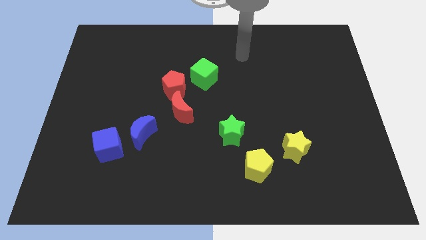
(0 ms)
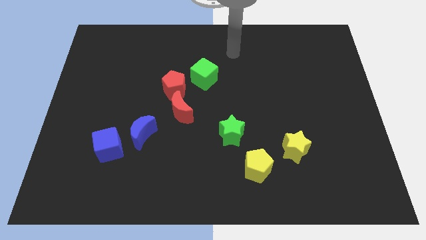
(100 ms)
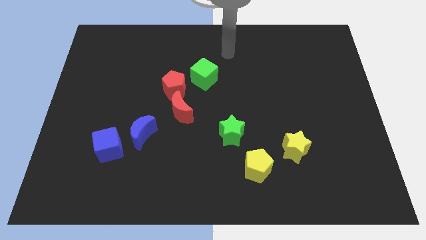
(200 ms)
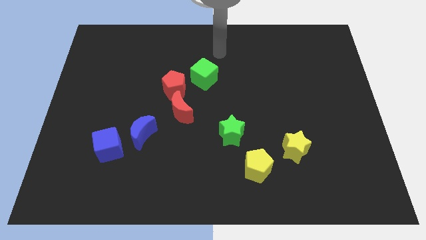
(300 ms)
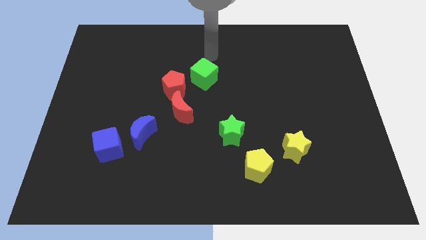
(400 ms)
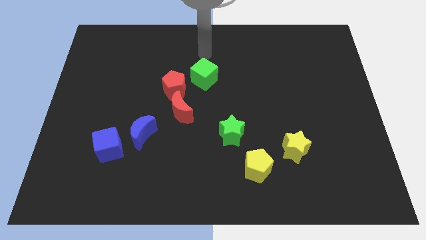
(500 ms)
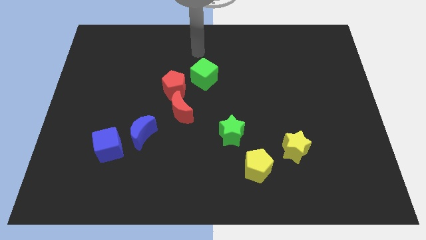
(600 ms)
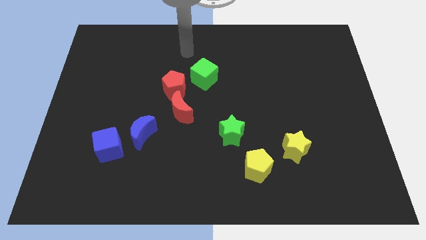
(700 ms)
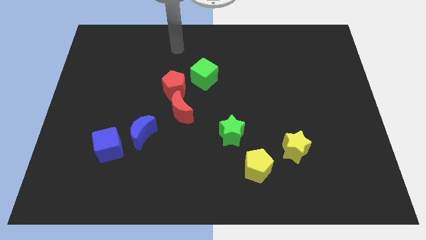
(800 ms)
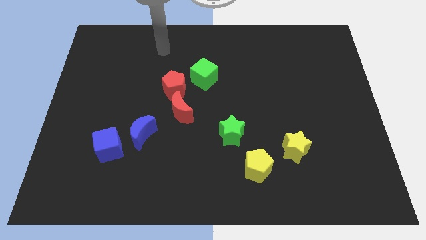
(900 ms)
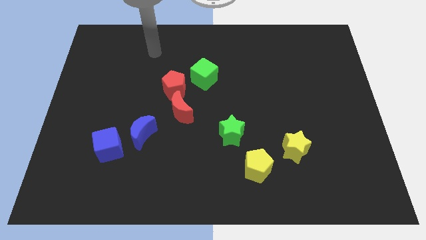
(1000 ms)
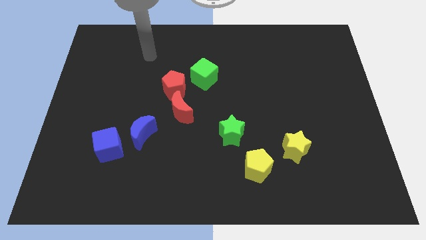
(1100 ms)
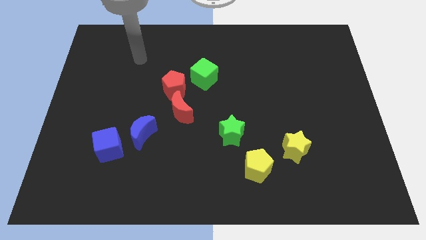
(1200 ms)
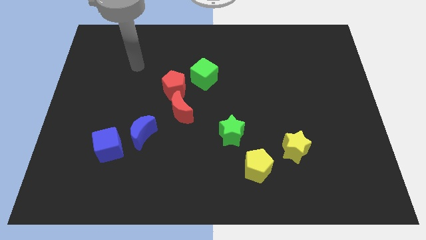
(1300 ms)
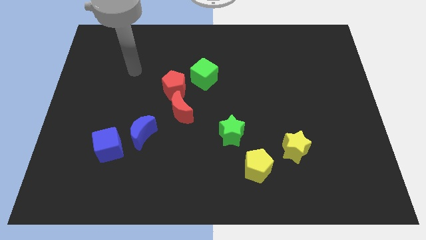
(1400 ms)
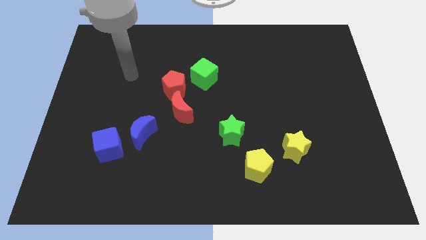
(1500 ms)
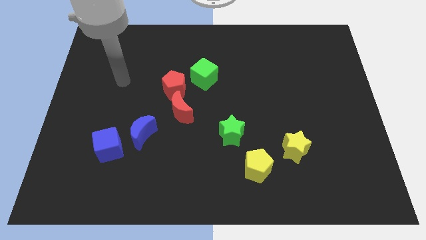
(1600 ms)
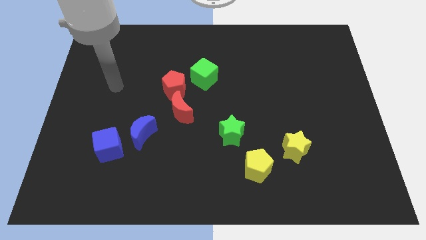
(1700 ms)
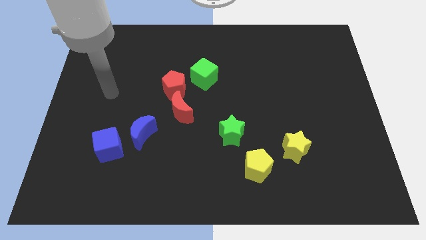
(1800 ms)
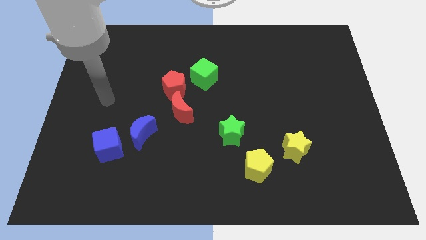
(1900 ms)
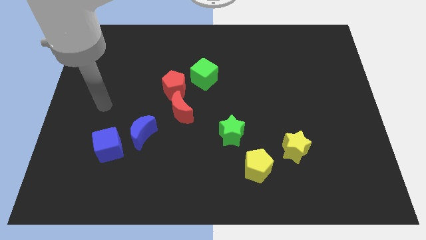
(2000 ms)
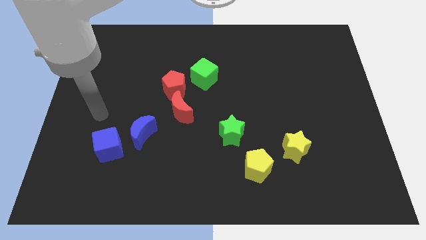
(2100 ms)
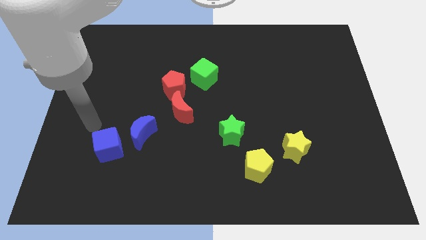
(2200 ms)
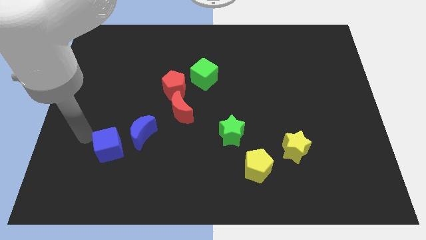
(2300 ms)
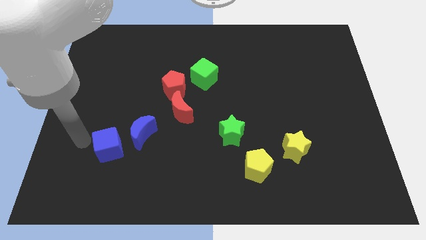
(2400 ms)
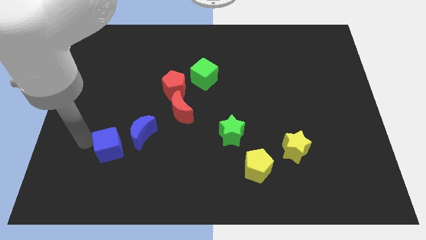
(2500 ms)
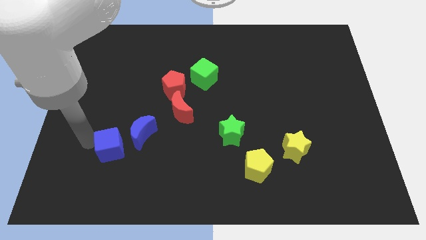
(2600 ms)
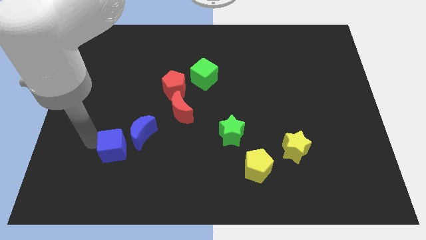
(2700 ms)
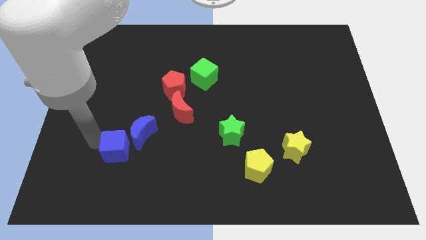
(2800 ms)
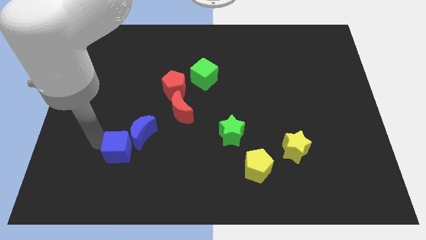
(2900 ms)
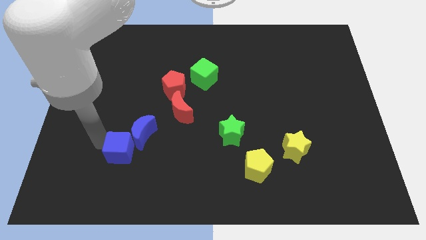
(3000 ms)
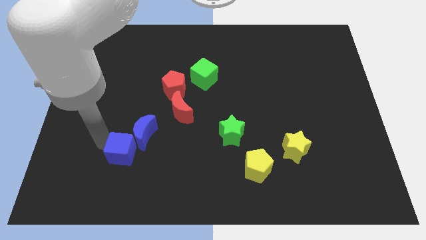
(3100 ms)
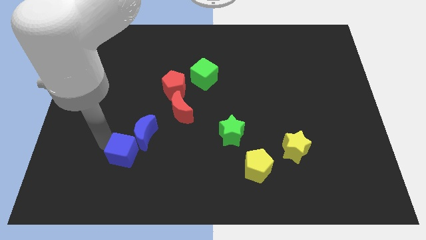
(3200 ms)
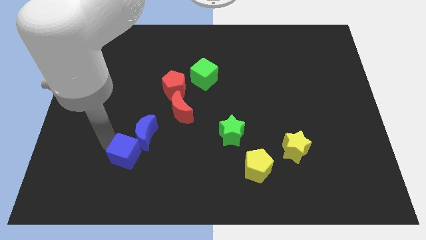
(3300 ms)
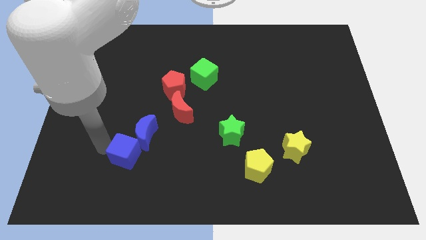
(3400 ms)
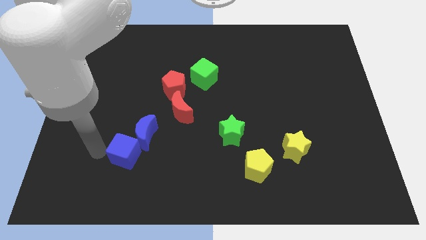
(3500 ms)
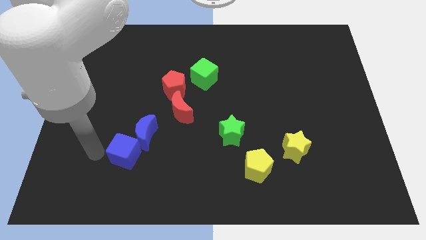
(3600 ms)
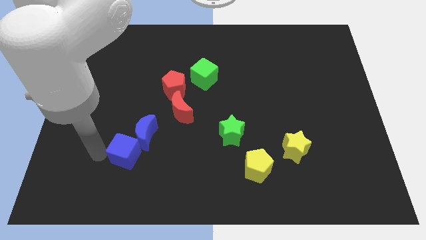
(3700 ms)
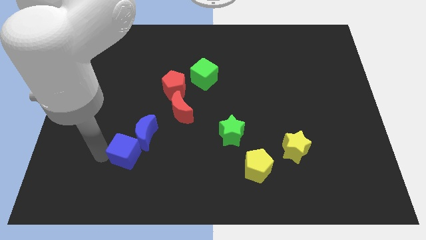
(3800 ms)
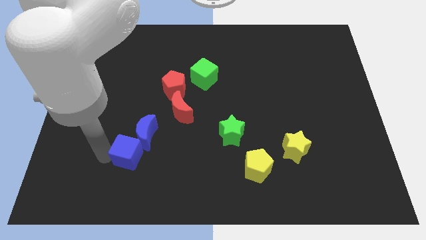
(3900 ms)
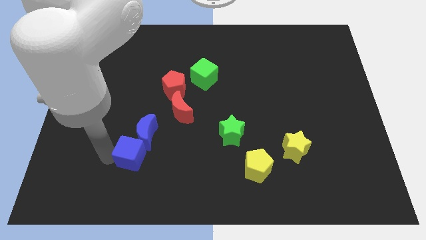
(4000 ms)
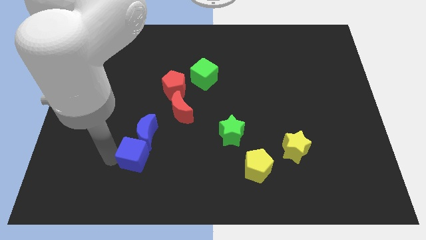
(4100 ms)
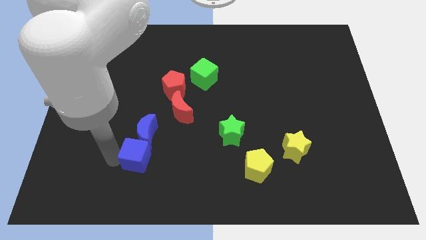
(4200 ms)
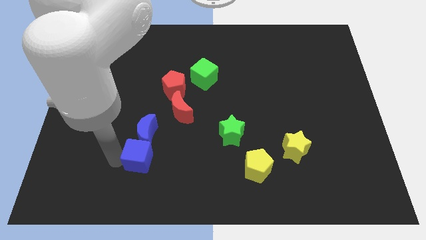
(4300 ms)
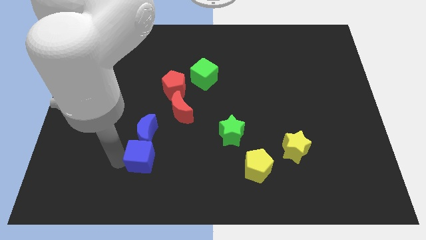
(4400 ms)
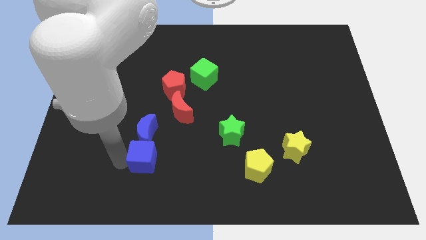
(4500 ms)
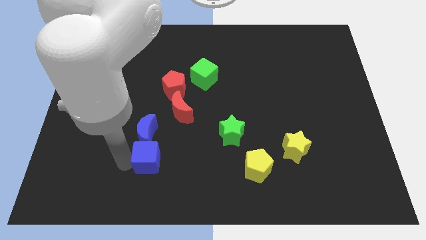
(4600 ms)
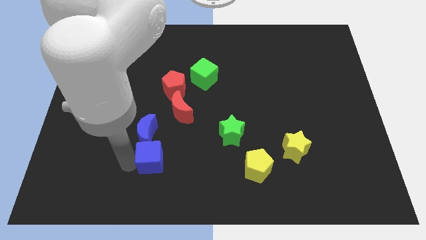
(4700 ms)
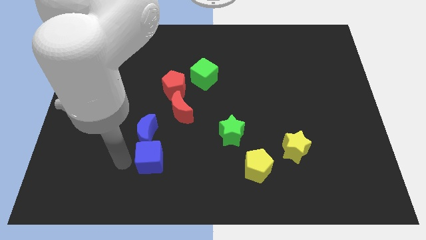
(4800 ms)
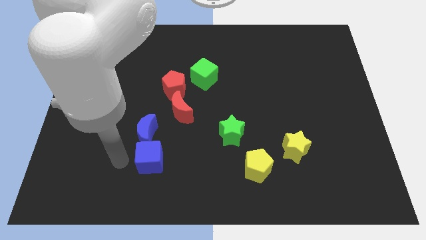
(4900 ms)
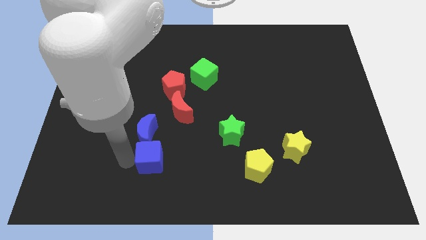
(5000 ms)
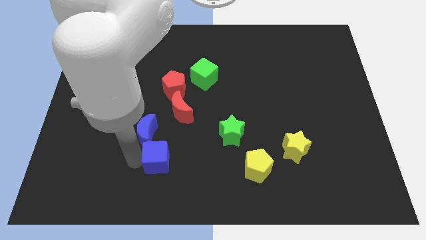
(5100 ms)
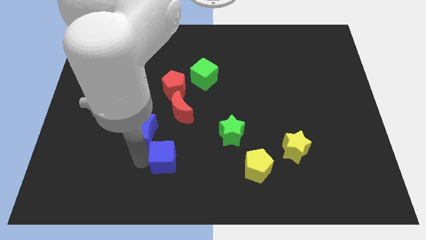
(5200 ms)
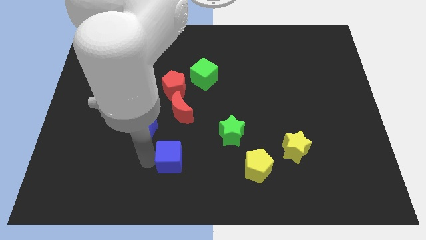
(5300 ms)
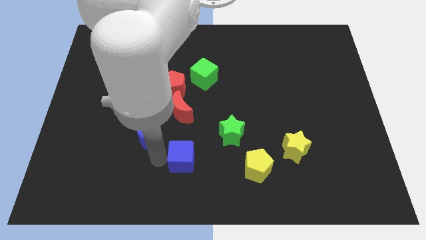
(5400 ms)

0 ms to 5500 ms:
put the blue cube left of the yellow pentagon

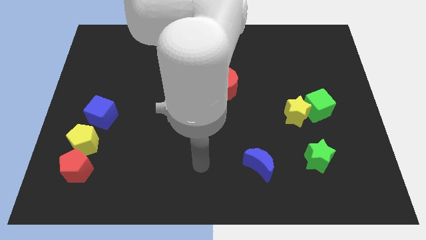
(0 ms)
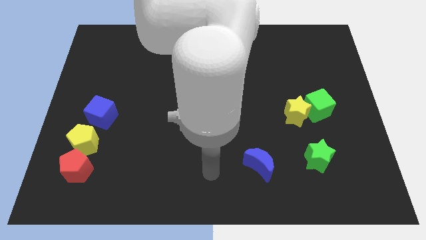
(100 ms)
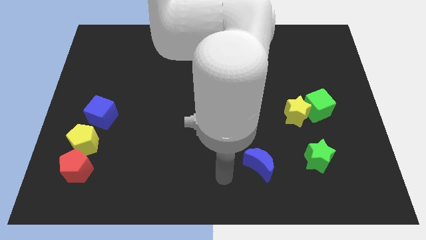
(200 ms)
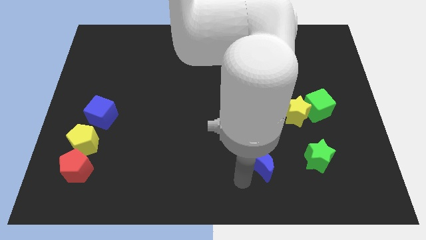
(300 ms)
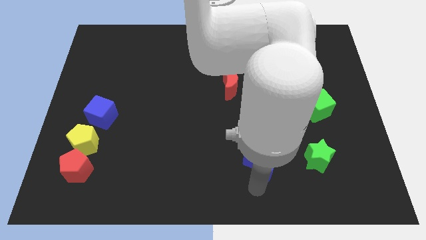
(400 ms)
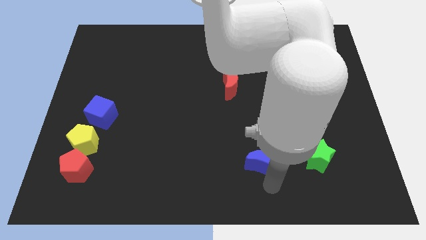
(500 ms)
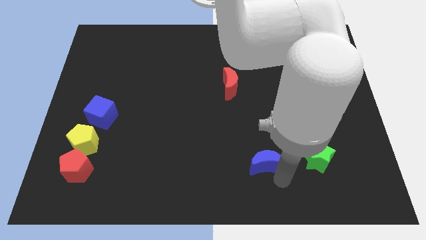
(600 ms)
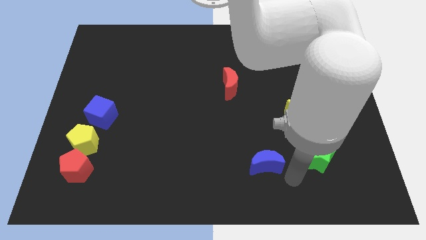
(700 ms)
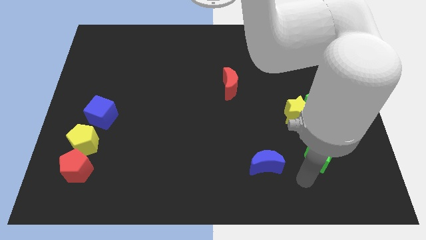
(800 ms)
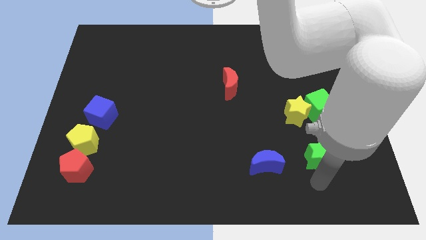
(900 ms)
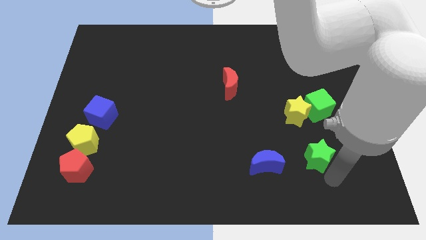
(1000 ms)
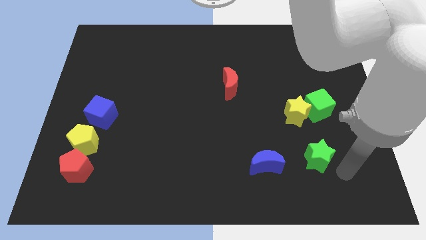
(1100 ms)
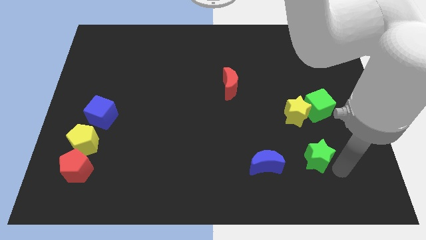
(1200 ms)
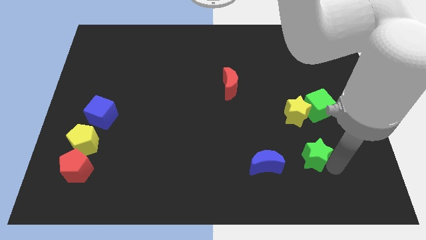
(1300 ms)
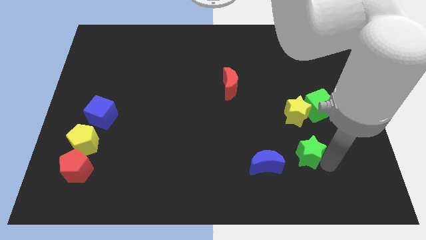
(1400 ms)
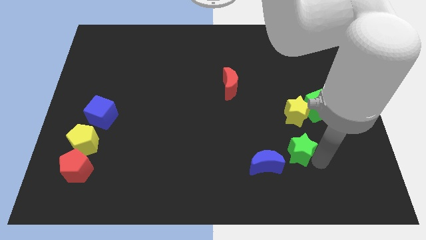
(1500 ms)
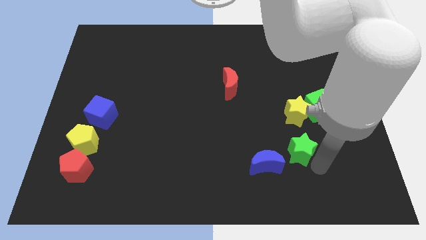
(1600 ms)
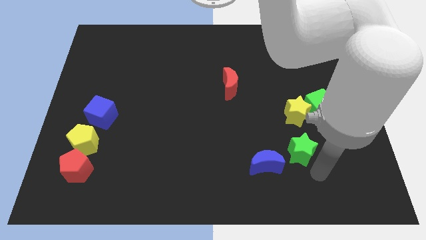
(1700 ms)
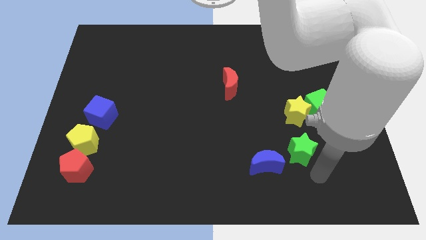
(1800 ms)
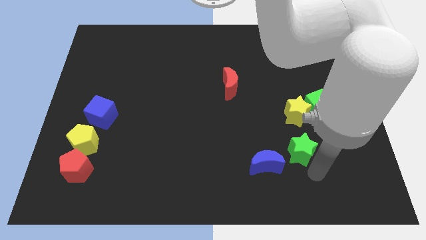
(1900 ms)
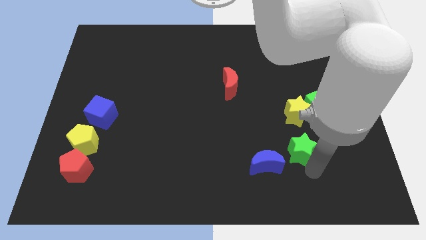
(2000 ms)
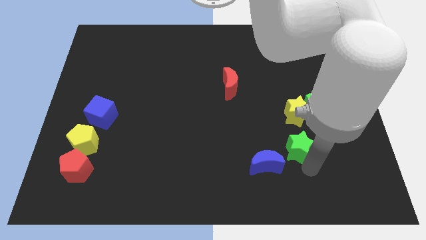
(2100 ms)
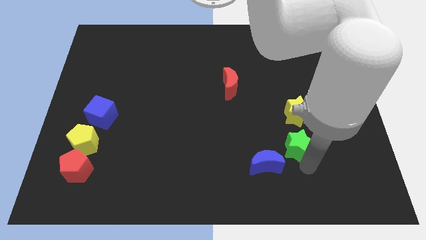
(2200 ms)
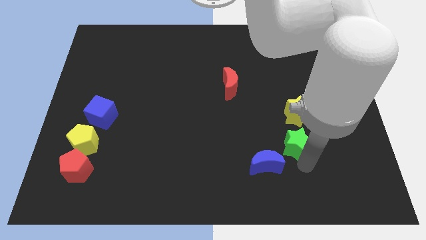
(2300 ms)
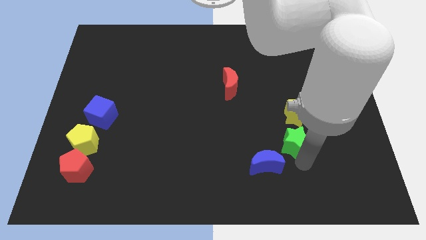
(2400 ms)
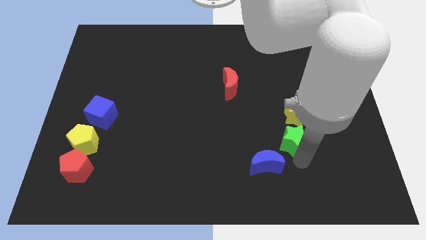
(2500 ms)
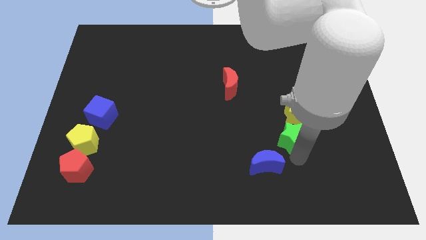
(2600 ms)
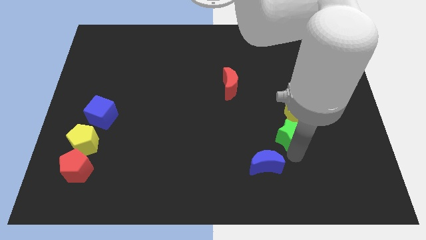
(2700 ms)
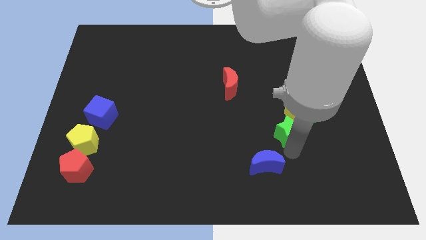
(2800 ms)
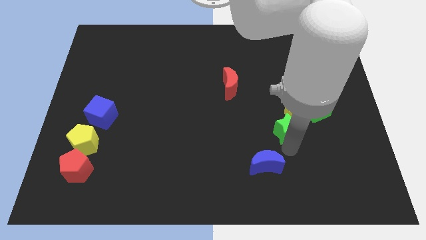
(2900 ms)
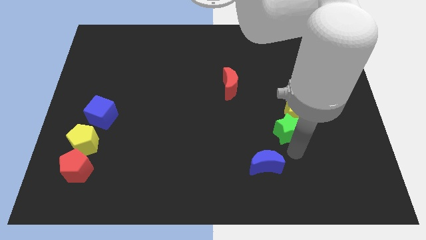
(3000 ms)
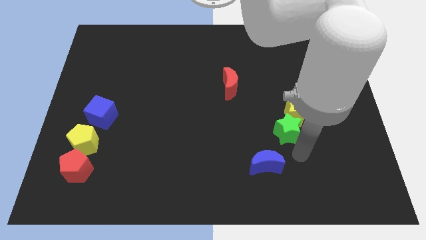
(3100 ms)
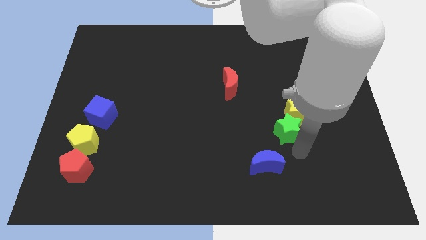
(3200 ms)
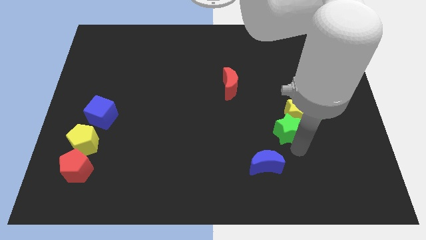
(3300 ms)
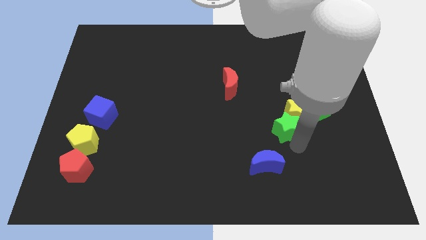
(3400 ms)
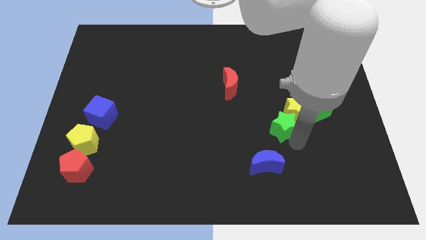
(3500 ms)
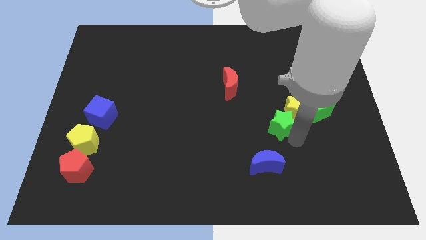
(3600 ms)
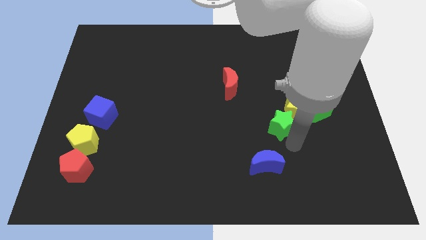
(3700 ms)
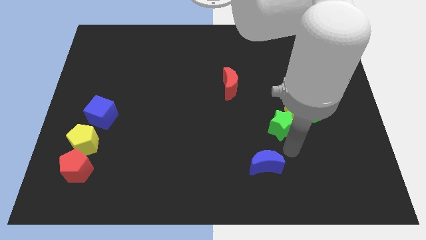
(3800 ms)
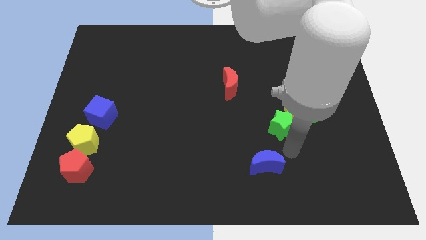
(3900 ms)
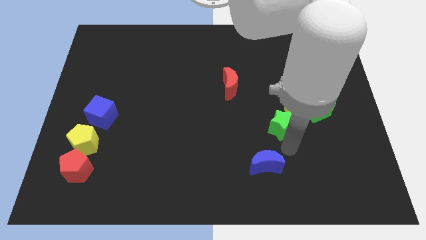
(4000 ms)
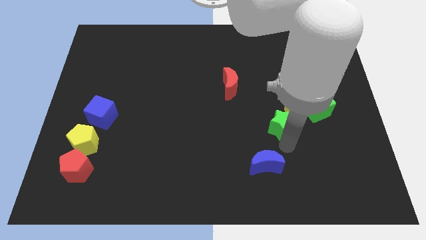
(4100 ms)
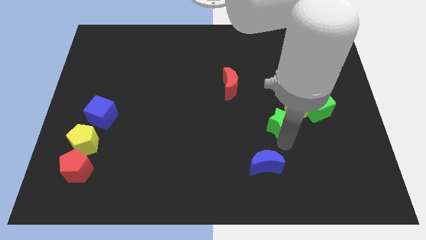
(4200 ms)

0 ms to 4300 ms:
push the green star to the left side of the green cube
